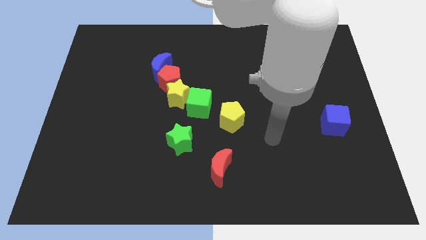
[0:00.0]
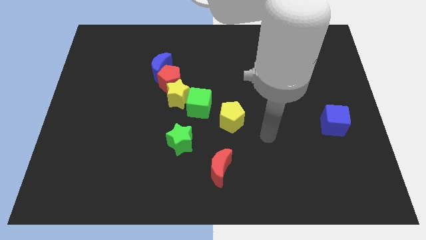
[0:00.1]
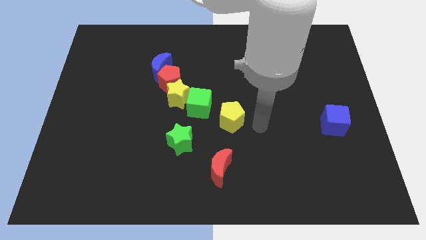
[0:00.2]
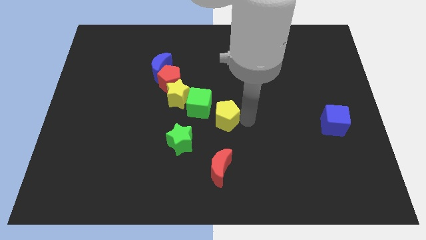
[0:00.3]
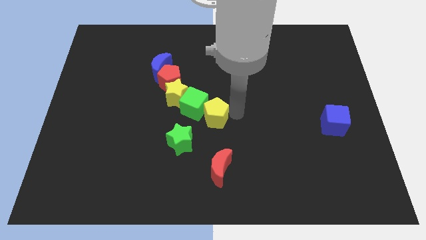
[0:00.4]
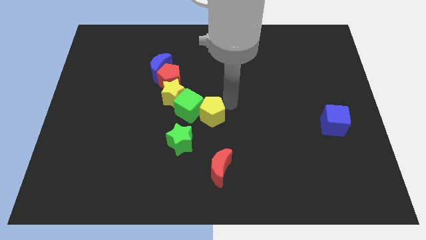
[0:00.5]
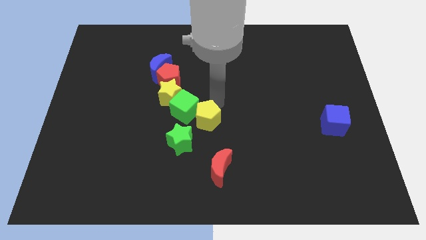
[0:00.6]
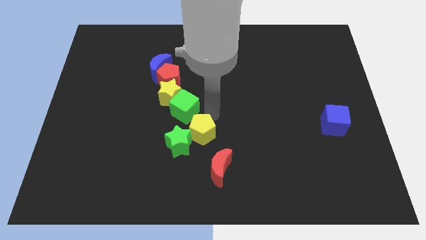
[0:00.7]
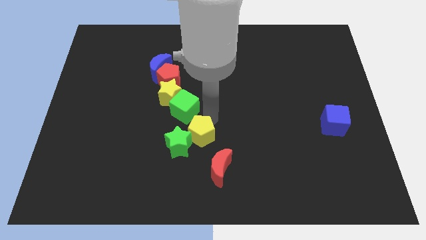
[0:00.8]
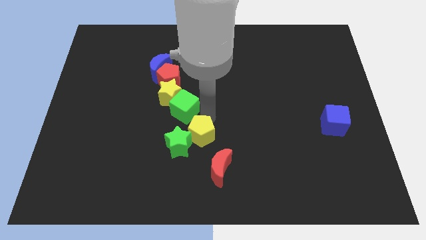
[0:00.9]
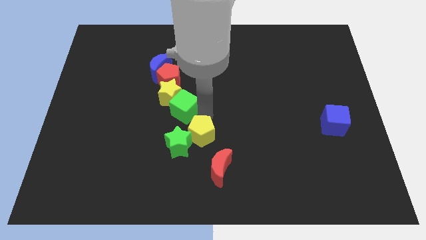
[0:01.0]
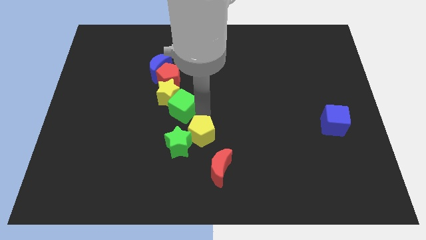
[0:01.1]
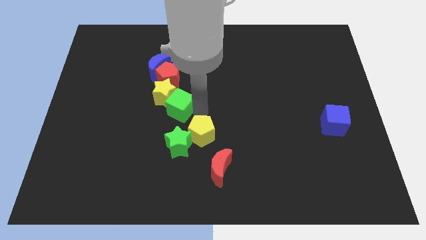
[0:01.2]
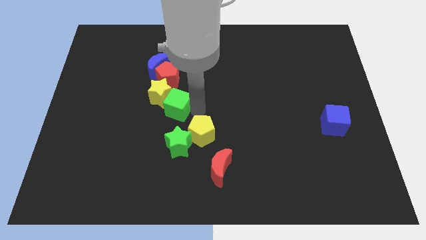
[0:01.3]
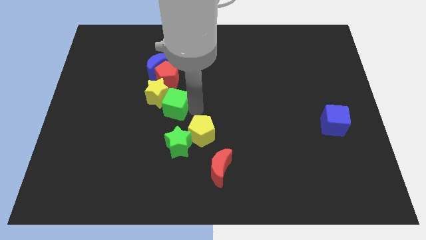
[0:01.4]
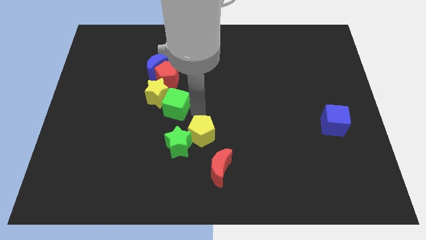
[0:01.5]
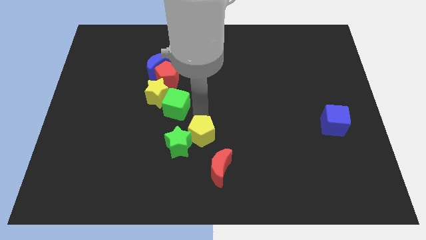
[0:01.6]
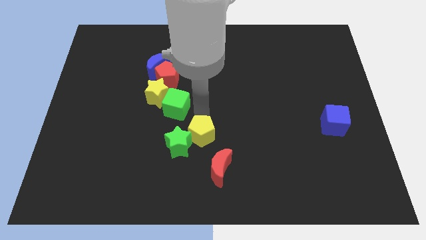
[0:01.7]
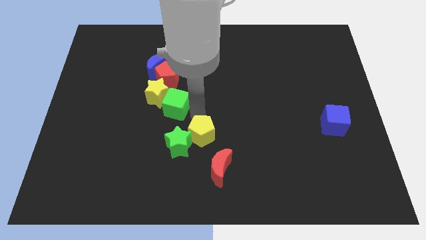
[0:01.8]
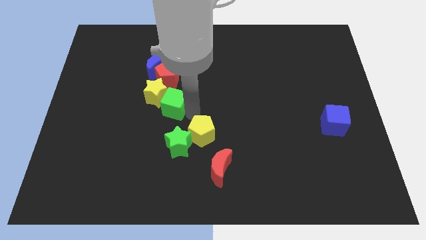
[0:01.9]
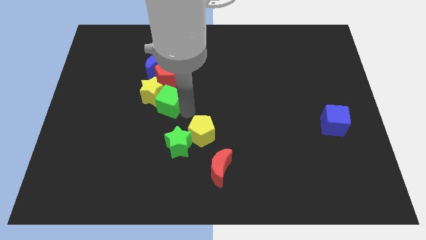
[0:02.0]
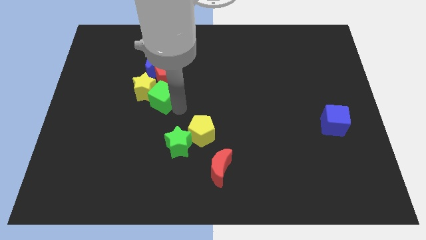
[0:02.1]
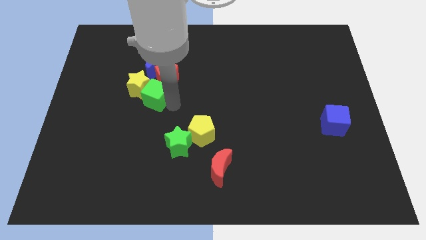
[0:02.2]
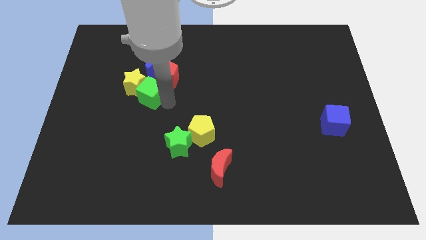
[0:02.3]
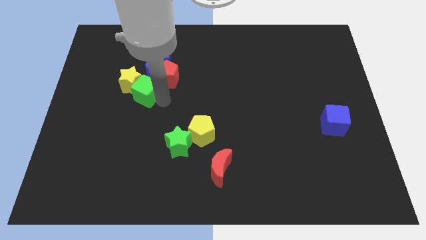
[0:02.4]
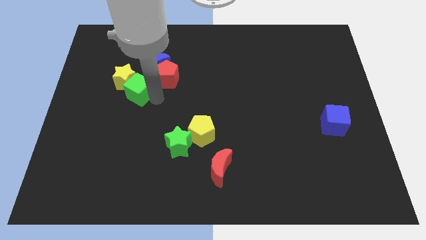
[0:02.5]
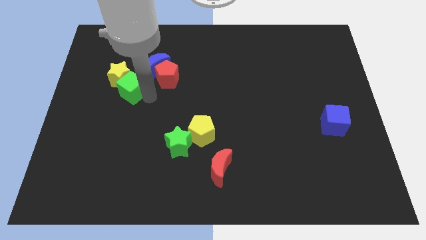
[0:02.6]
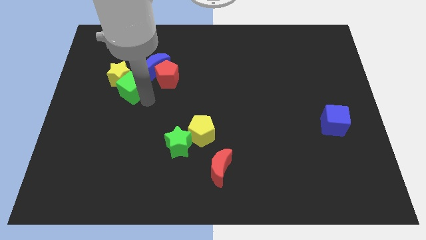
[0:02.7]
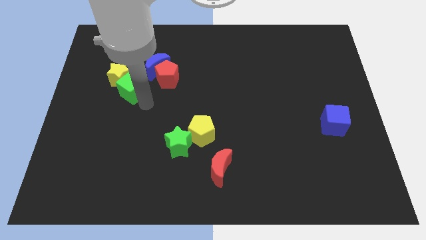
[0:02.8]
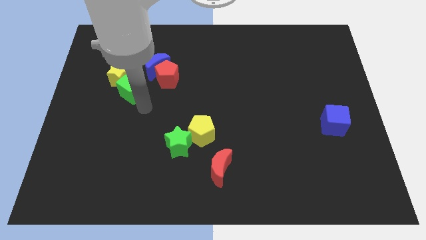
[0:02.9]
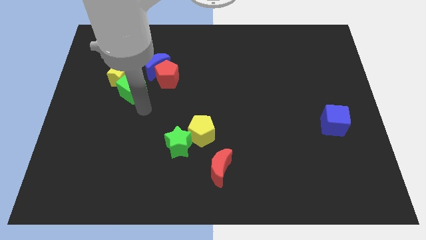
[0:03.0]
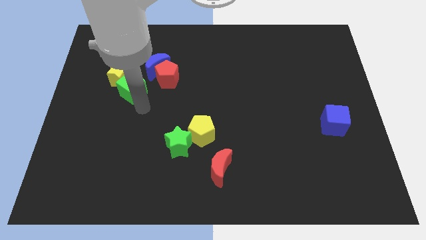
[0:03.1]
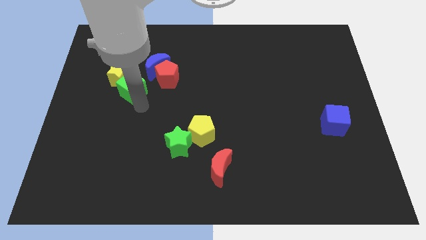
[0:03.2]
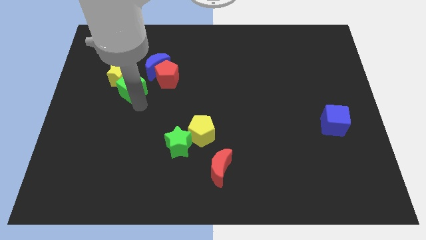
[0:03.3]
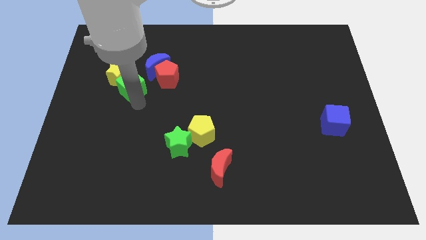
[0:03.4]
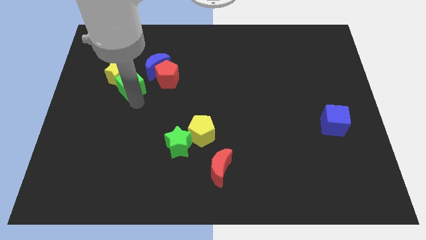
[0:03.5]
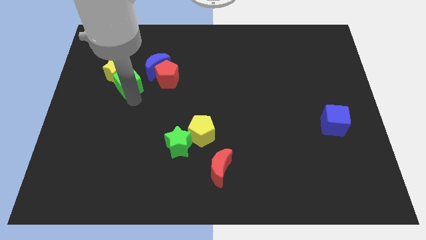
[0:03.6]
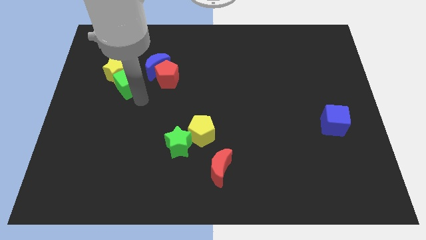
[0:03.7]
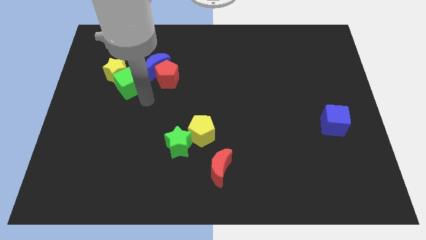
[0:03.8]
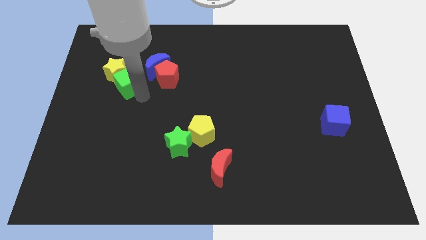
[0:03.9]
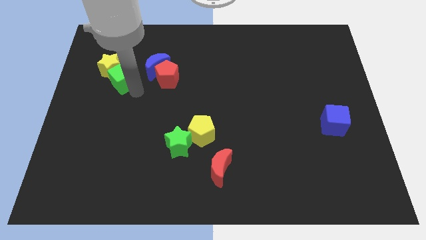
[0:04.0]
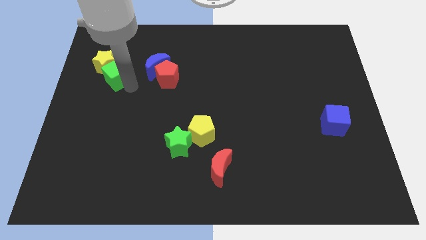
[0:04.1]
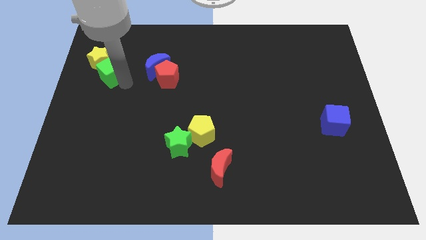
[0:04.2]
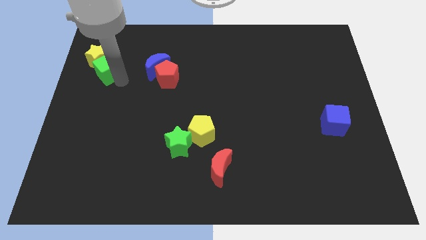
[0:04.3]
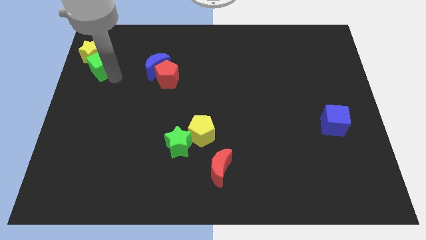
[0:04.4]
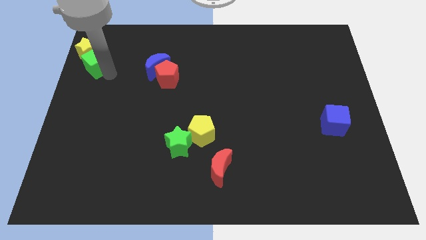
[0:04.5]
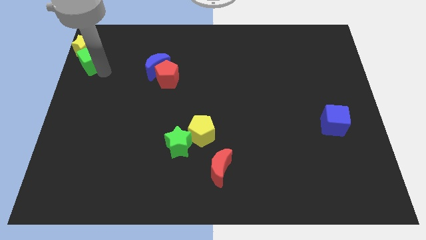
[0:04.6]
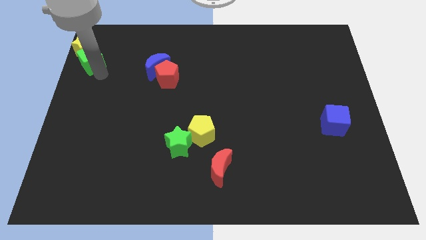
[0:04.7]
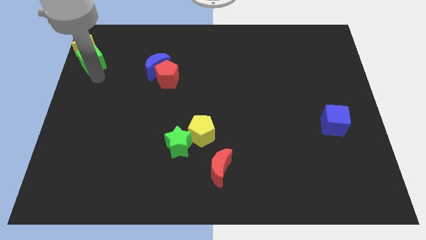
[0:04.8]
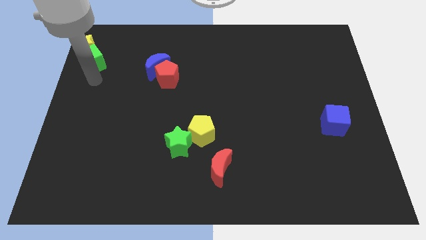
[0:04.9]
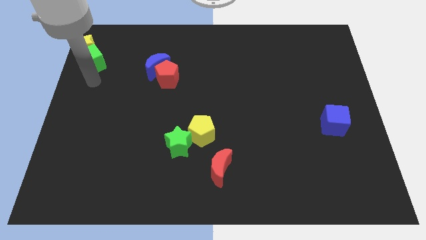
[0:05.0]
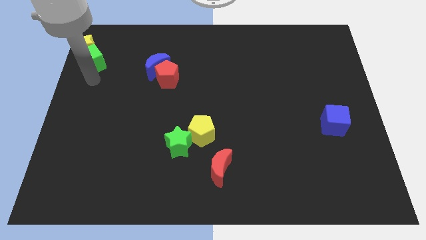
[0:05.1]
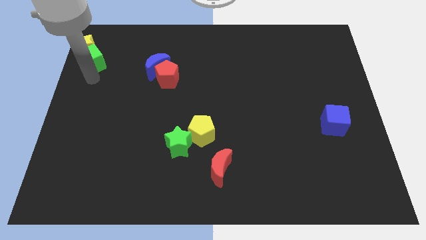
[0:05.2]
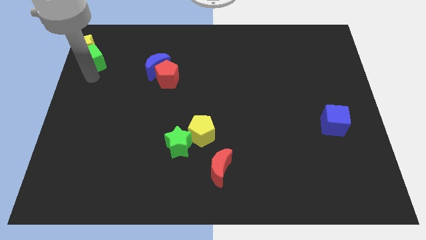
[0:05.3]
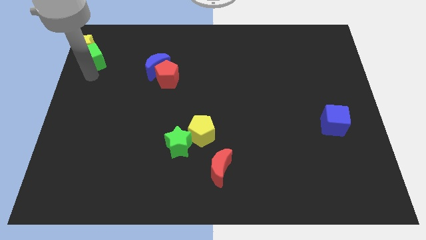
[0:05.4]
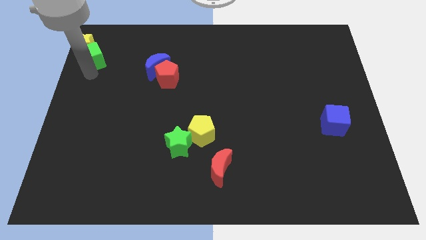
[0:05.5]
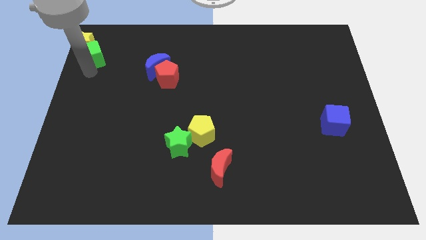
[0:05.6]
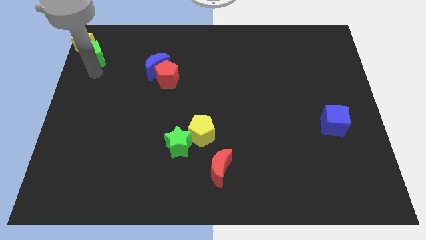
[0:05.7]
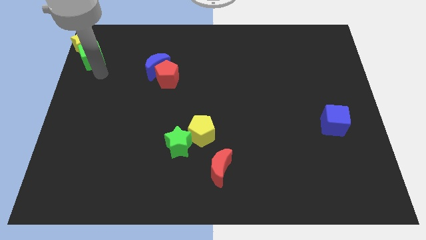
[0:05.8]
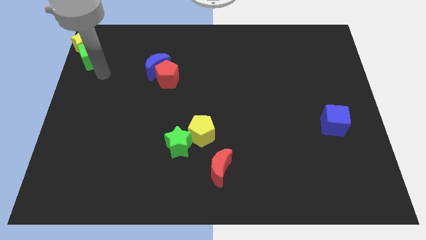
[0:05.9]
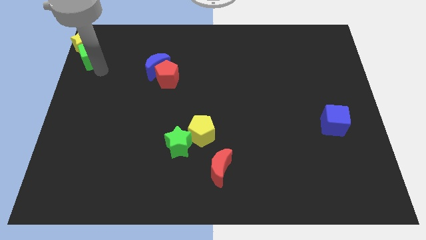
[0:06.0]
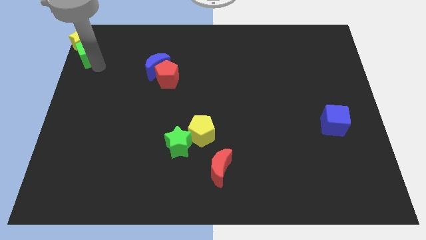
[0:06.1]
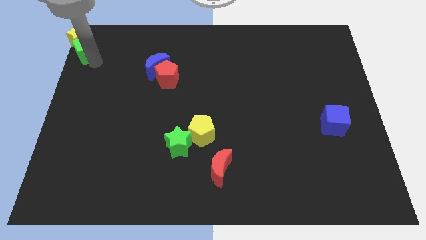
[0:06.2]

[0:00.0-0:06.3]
put the green cube to the upper left corner

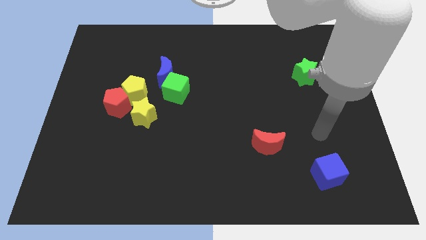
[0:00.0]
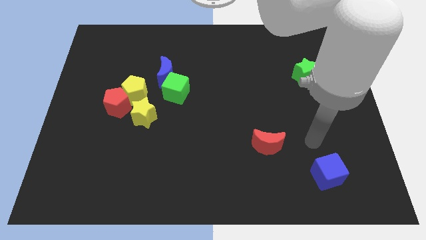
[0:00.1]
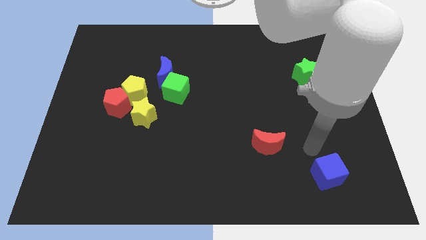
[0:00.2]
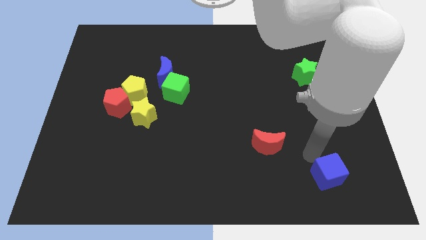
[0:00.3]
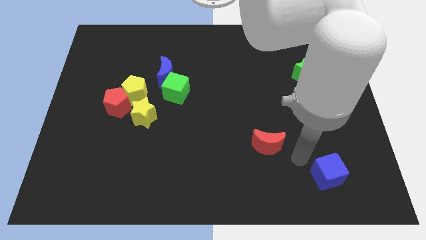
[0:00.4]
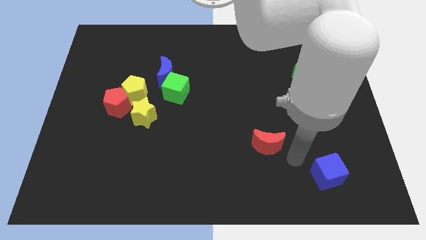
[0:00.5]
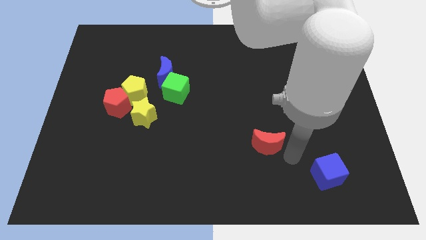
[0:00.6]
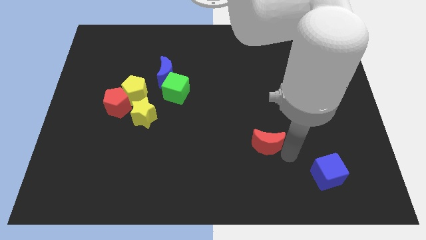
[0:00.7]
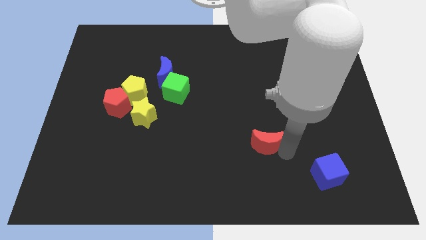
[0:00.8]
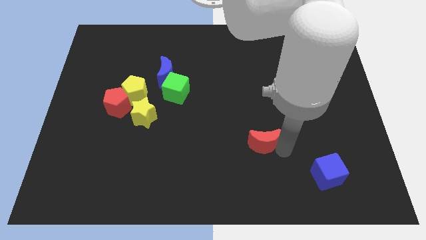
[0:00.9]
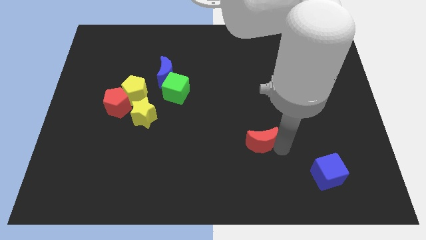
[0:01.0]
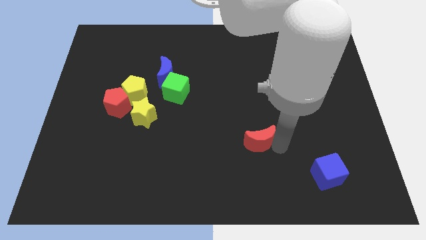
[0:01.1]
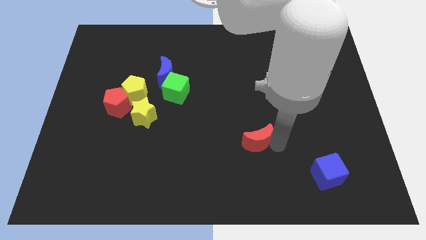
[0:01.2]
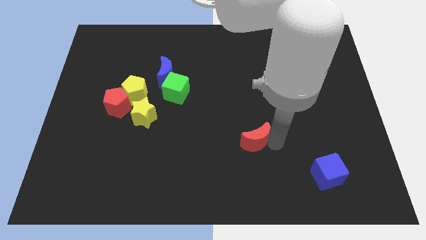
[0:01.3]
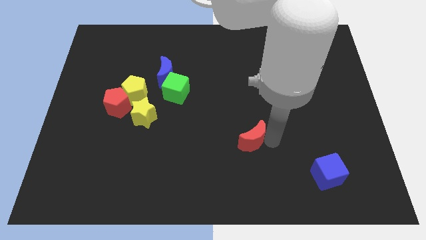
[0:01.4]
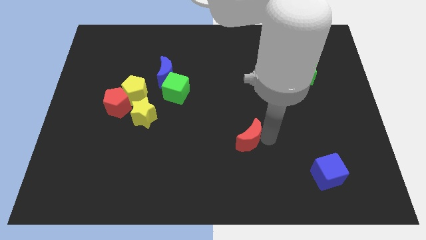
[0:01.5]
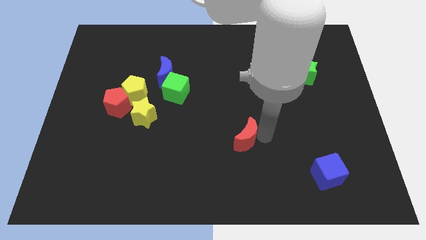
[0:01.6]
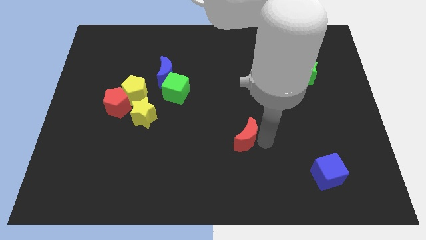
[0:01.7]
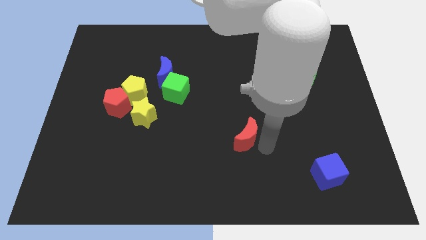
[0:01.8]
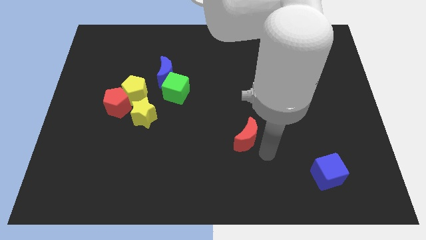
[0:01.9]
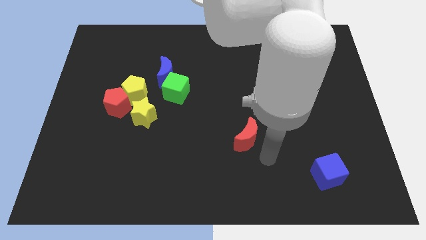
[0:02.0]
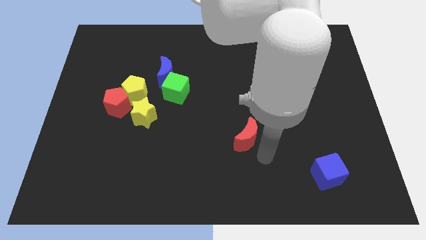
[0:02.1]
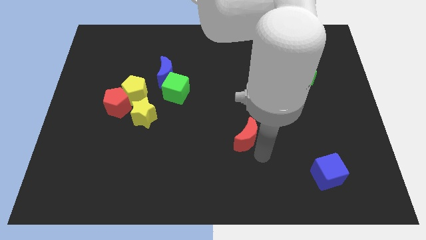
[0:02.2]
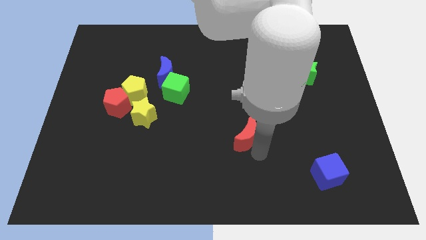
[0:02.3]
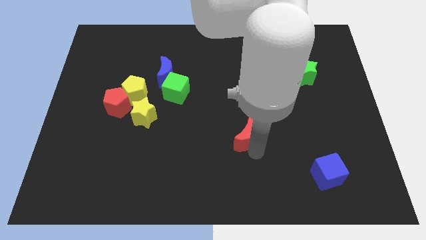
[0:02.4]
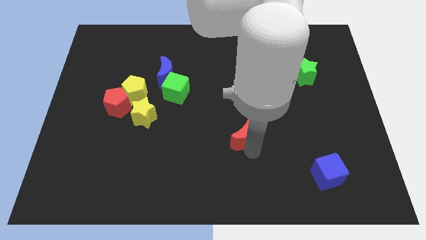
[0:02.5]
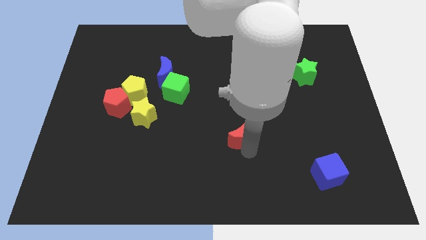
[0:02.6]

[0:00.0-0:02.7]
move the red moon to the center
